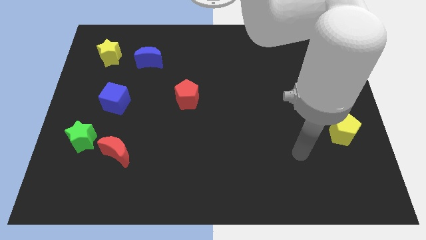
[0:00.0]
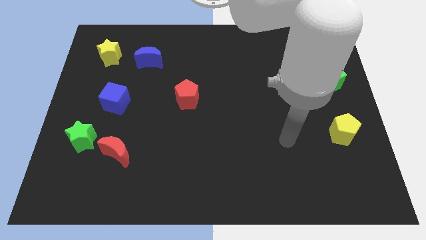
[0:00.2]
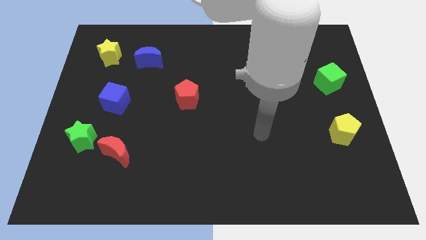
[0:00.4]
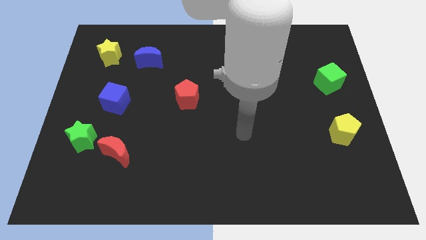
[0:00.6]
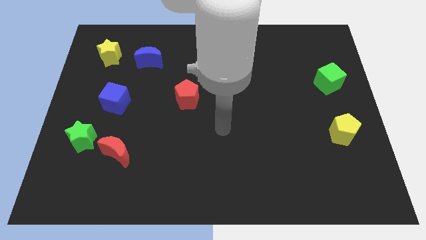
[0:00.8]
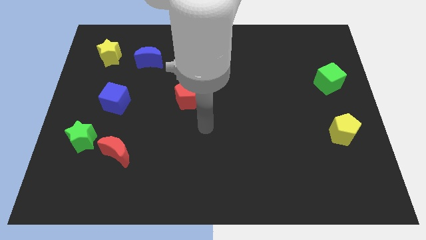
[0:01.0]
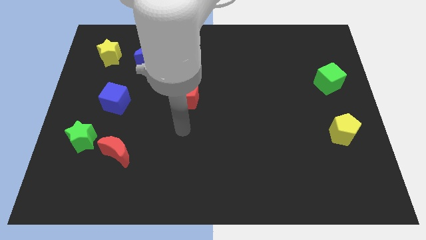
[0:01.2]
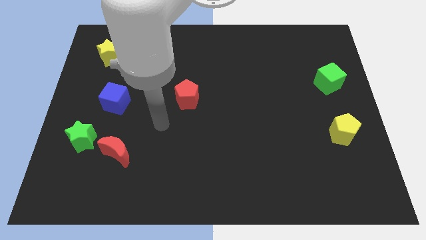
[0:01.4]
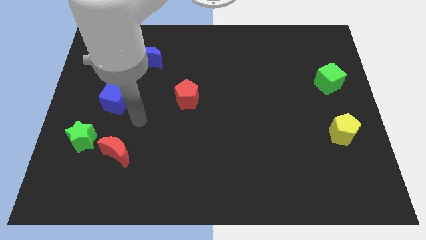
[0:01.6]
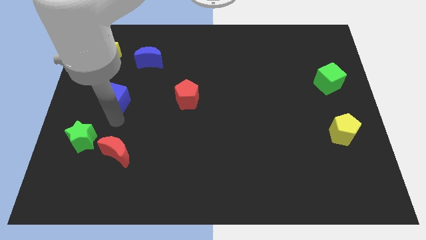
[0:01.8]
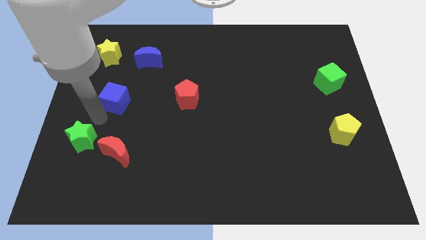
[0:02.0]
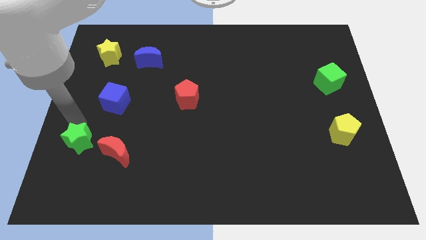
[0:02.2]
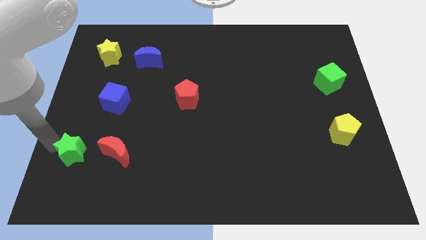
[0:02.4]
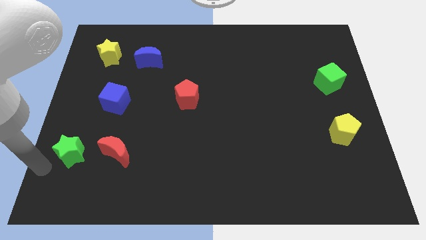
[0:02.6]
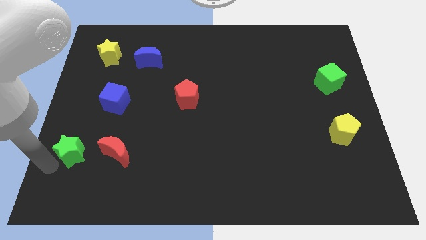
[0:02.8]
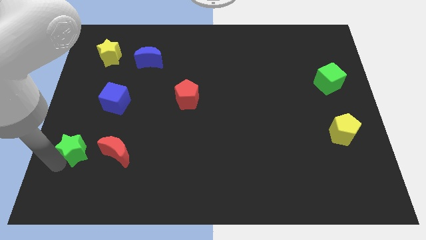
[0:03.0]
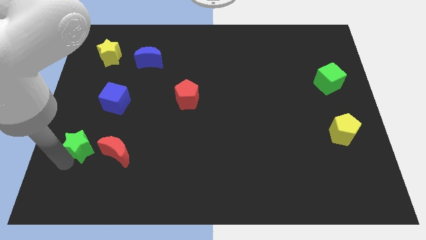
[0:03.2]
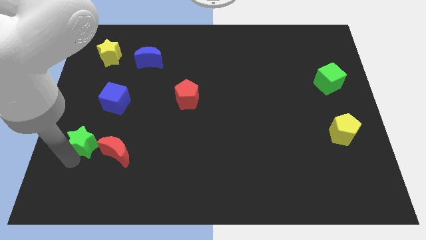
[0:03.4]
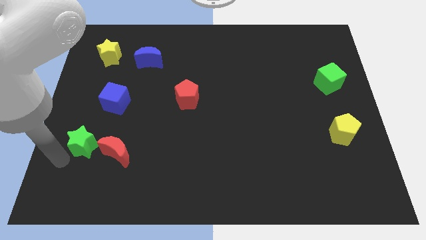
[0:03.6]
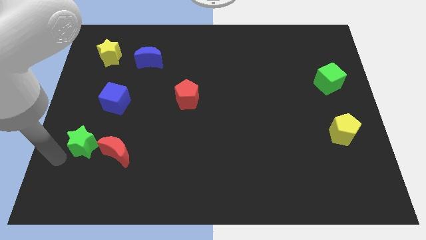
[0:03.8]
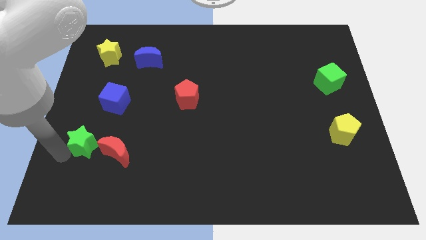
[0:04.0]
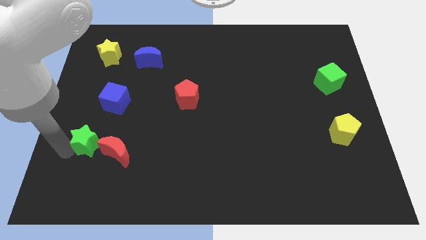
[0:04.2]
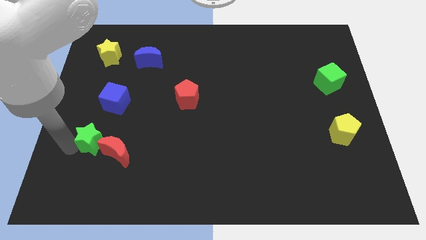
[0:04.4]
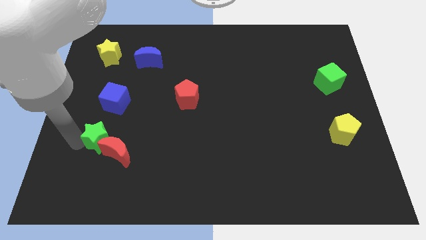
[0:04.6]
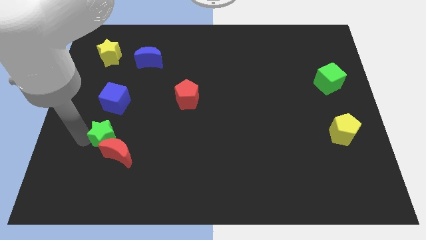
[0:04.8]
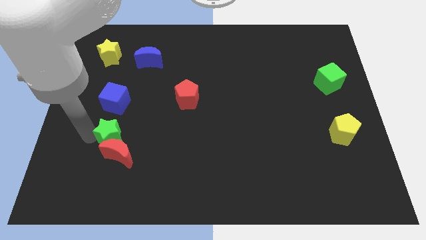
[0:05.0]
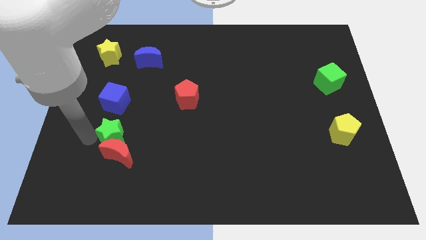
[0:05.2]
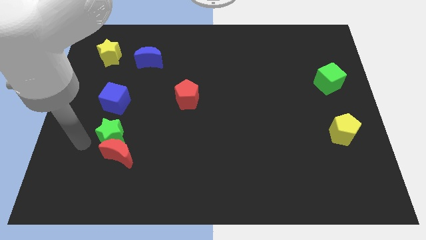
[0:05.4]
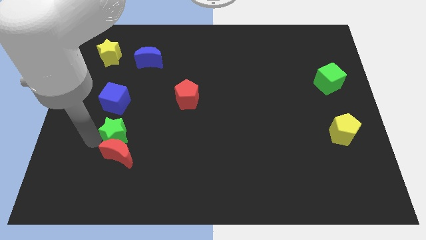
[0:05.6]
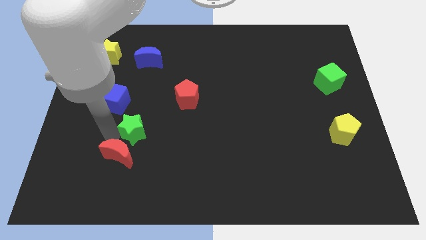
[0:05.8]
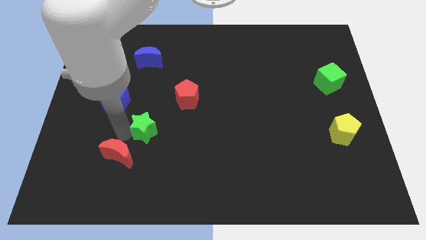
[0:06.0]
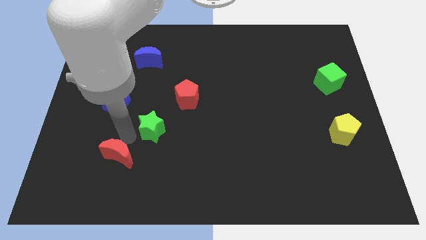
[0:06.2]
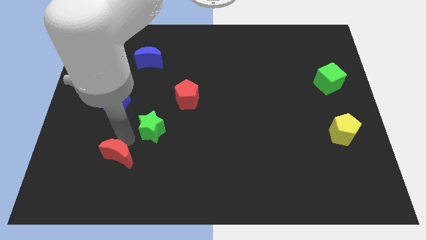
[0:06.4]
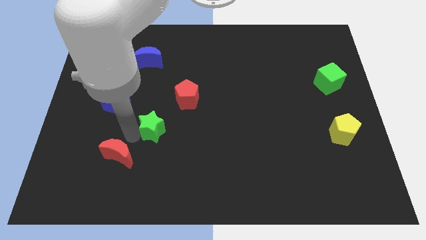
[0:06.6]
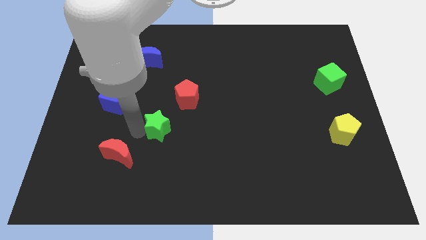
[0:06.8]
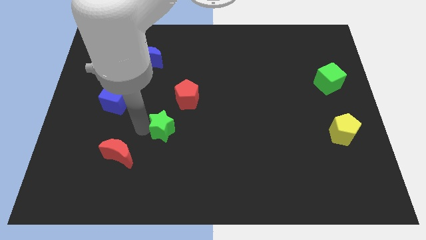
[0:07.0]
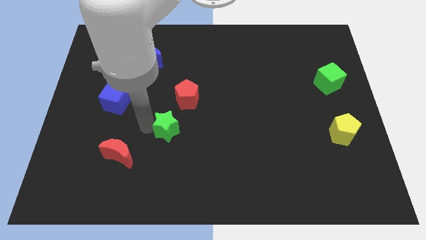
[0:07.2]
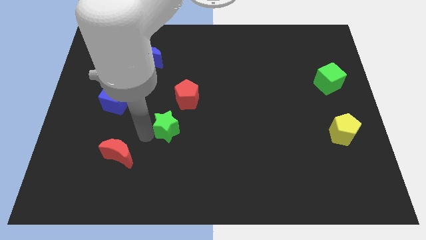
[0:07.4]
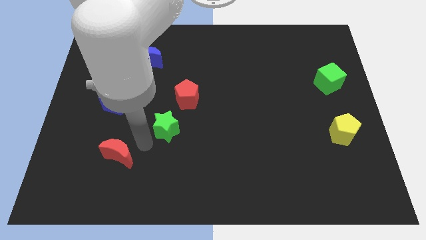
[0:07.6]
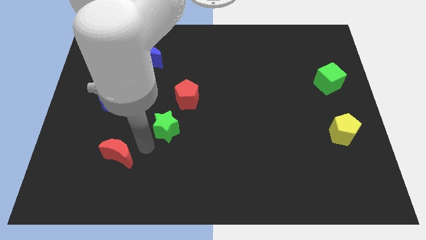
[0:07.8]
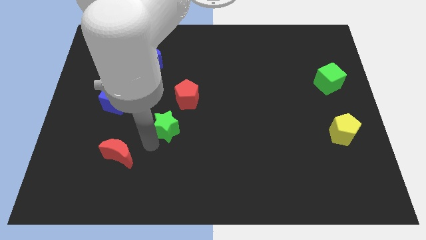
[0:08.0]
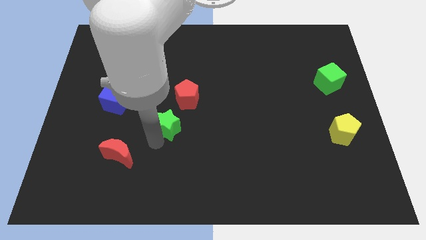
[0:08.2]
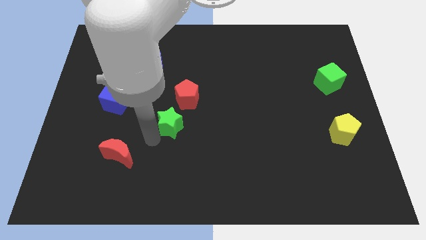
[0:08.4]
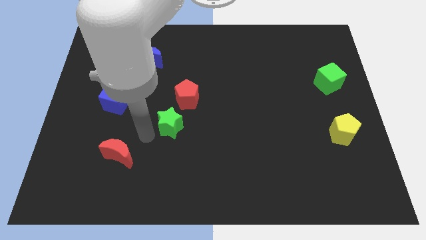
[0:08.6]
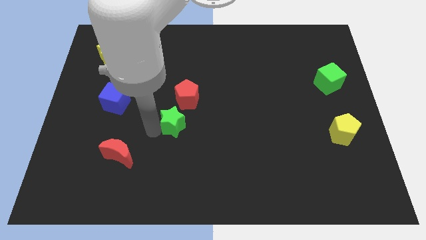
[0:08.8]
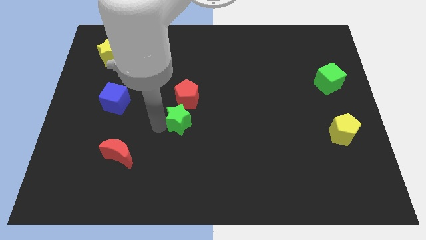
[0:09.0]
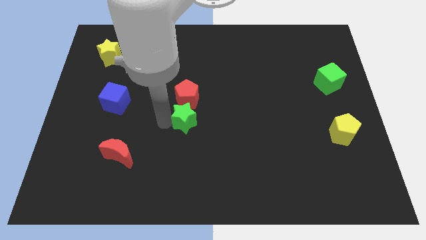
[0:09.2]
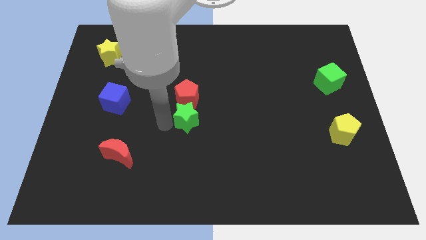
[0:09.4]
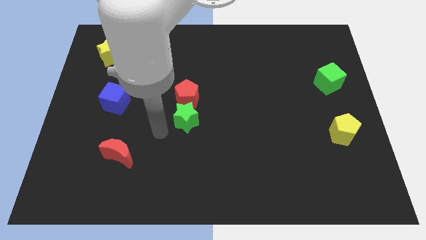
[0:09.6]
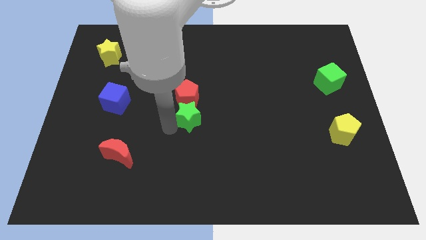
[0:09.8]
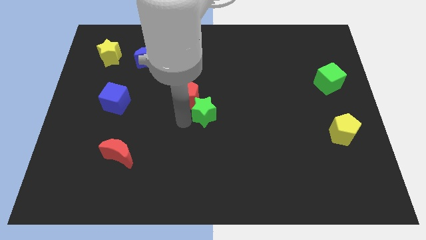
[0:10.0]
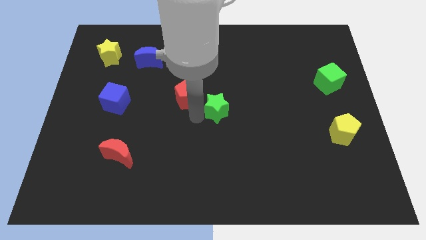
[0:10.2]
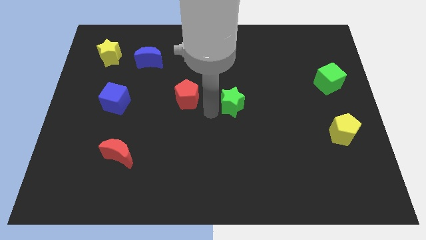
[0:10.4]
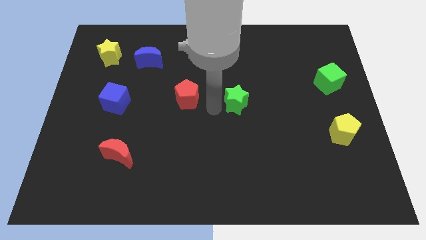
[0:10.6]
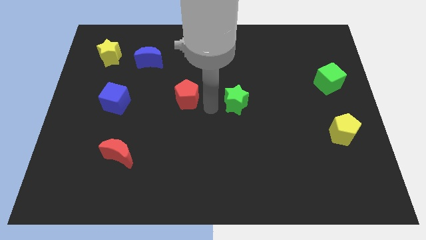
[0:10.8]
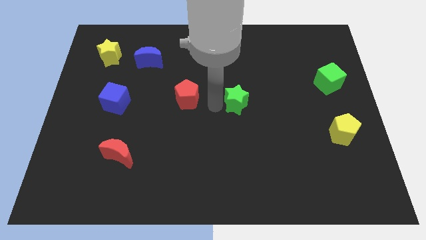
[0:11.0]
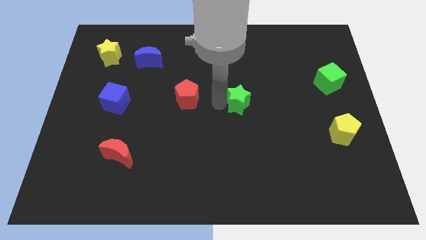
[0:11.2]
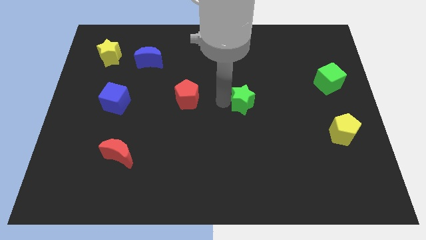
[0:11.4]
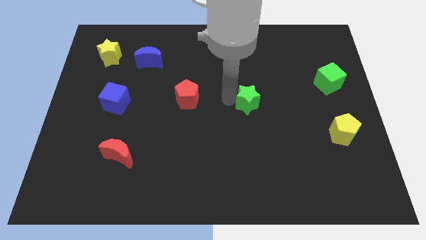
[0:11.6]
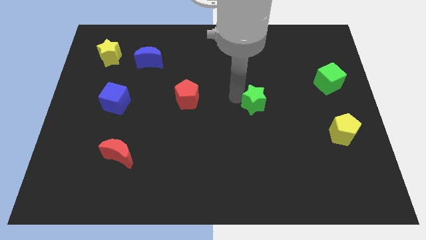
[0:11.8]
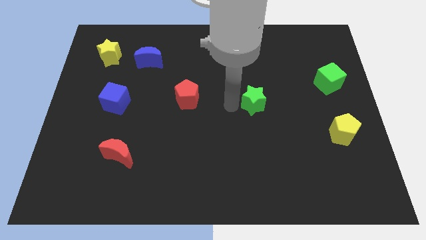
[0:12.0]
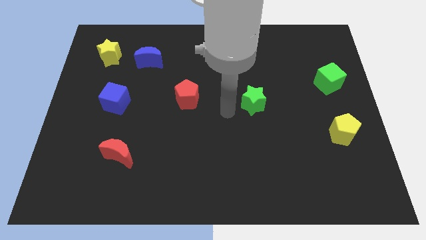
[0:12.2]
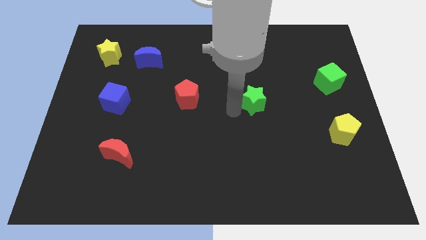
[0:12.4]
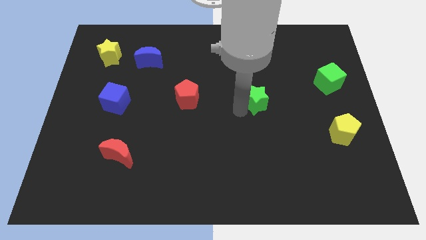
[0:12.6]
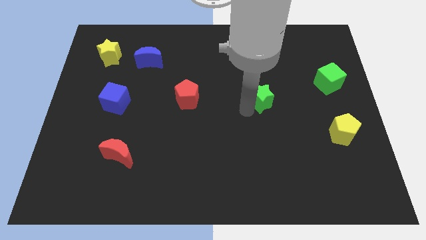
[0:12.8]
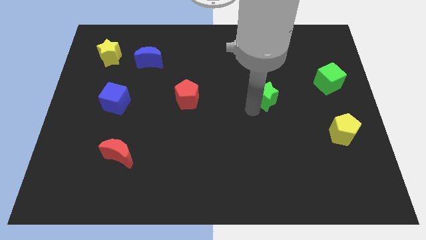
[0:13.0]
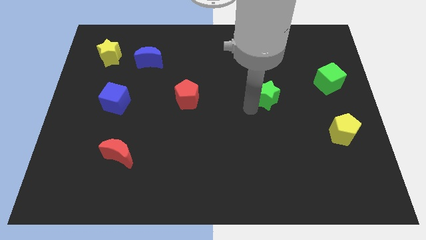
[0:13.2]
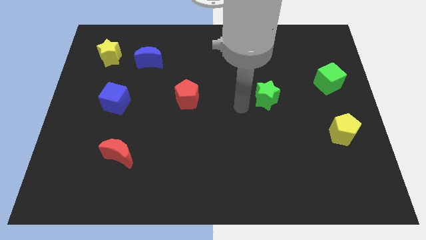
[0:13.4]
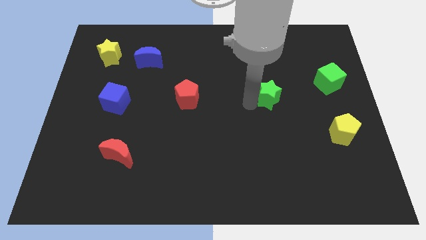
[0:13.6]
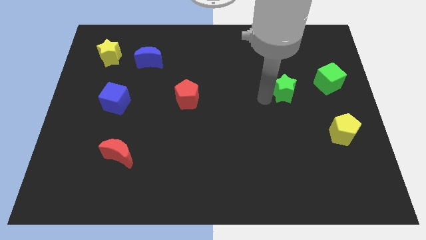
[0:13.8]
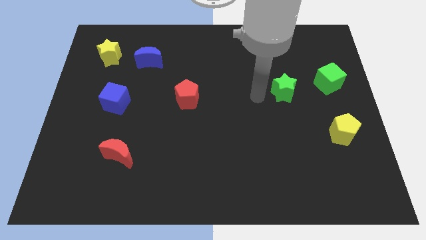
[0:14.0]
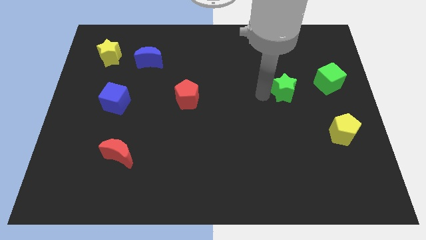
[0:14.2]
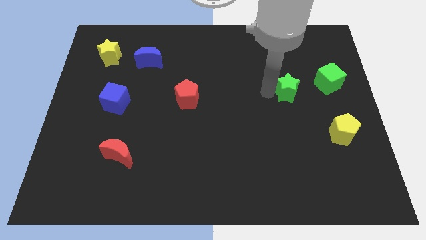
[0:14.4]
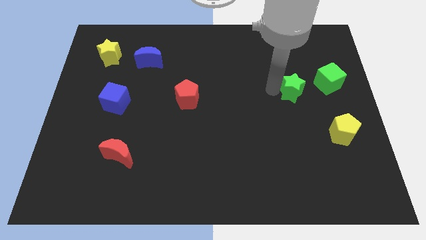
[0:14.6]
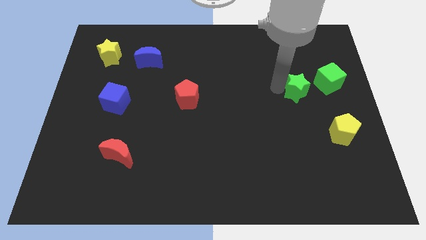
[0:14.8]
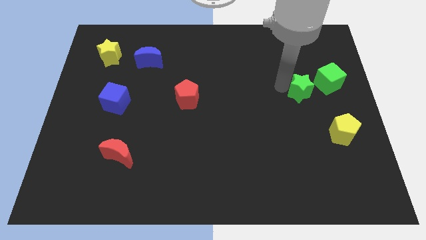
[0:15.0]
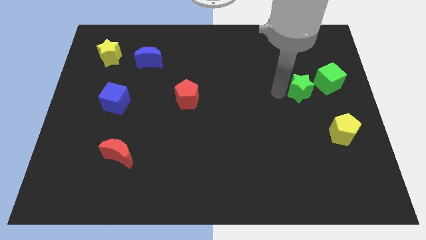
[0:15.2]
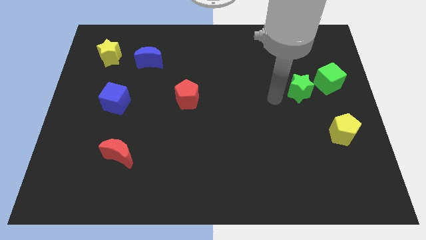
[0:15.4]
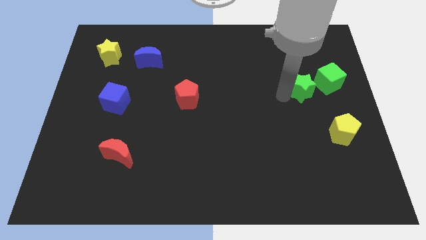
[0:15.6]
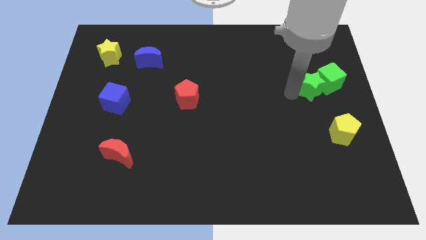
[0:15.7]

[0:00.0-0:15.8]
move the green star towards the green cube
